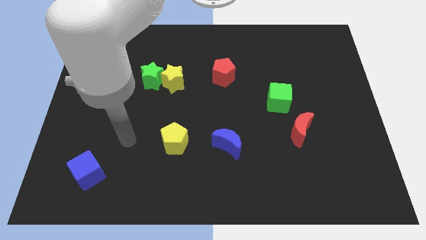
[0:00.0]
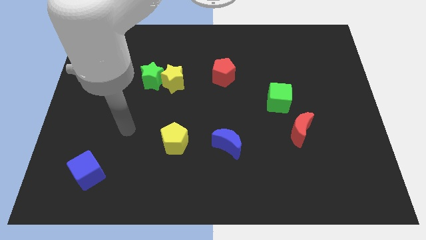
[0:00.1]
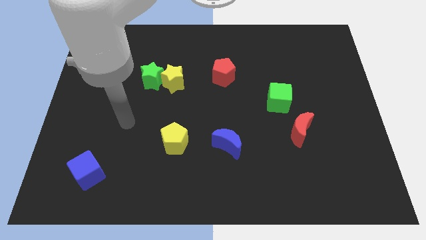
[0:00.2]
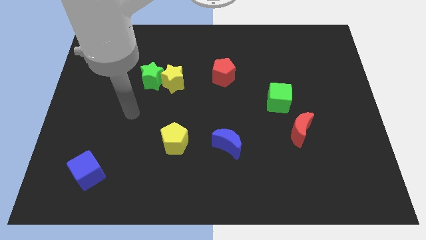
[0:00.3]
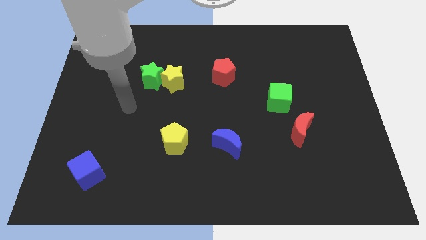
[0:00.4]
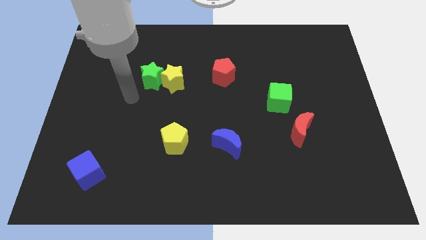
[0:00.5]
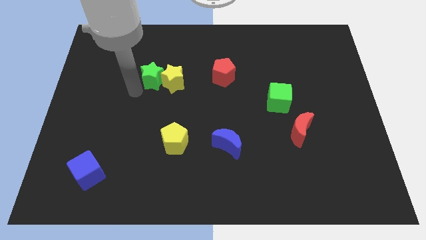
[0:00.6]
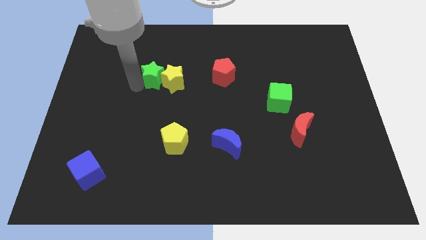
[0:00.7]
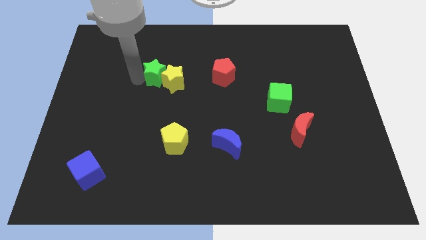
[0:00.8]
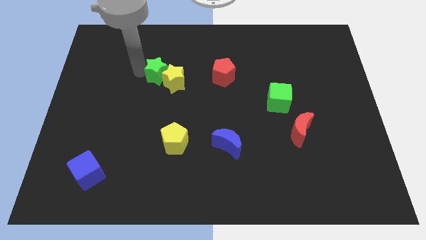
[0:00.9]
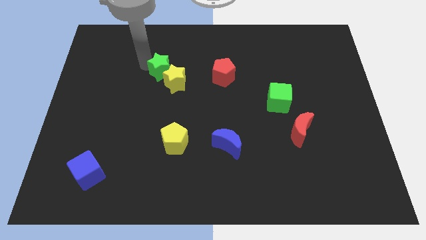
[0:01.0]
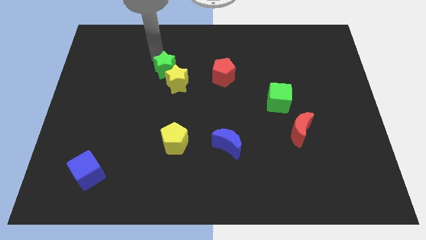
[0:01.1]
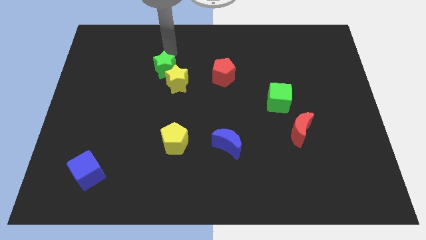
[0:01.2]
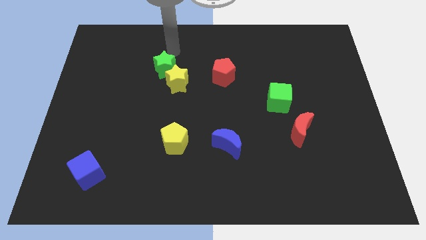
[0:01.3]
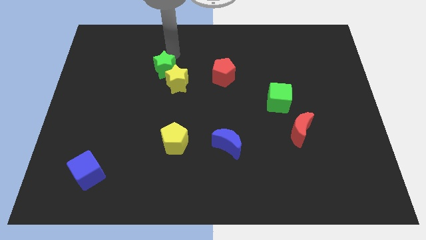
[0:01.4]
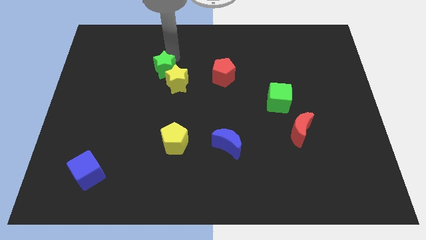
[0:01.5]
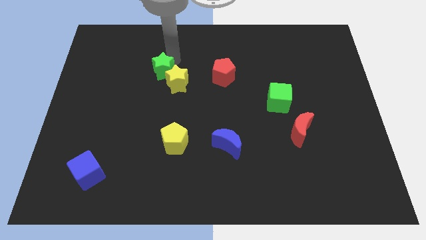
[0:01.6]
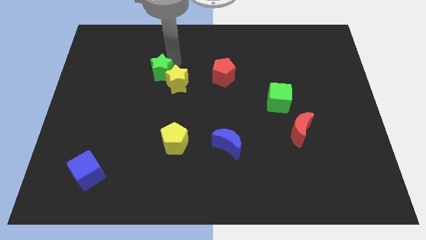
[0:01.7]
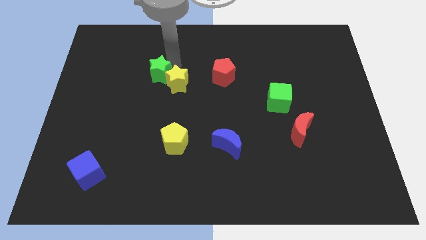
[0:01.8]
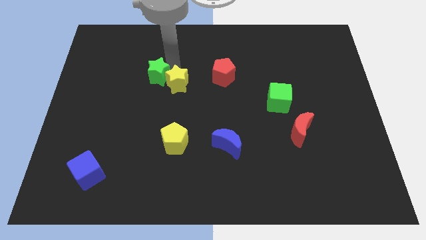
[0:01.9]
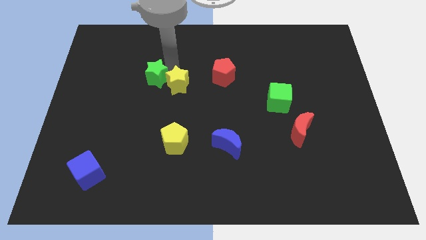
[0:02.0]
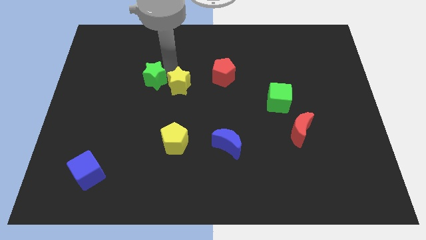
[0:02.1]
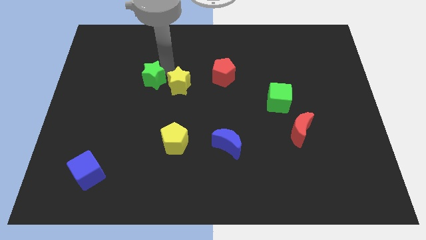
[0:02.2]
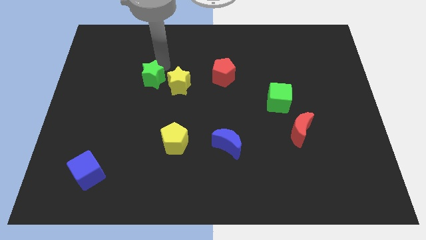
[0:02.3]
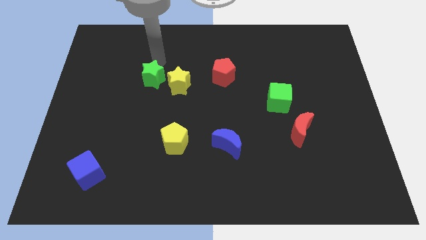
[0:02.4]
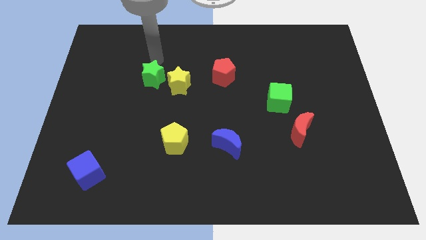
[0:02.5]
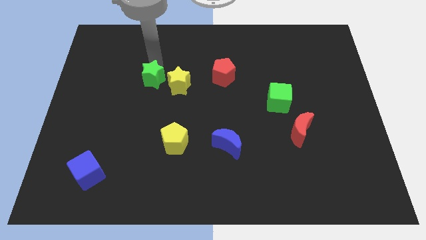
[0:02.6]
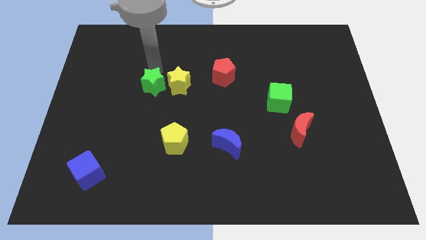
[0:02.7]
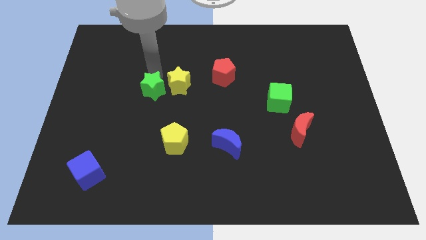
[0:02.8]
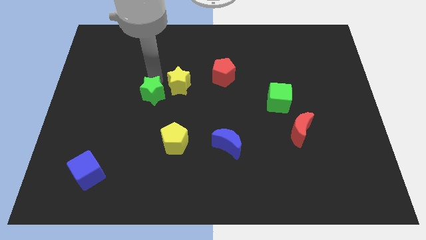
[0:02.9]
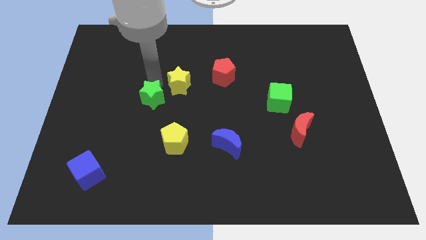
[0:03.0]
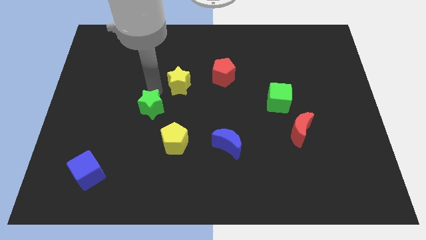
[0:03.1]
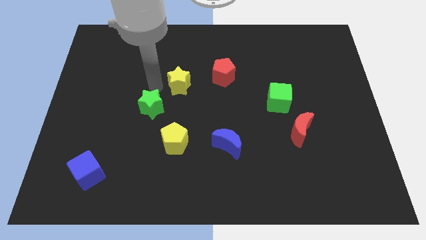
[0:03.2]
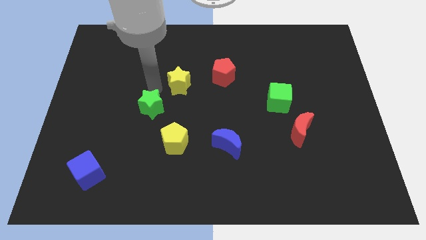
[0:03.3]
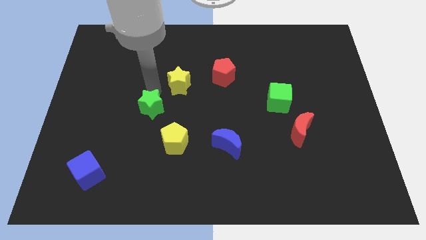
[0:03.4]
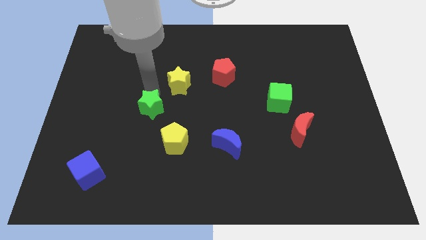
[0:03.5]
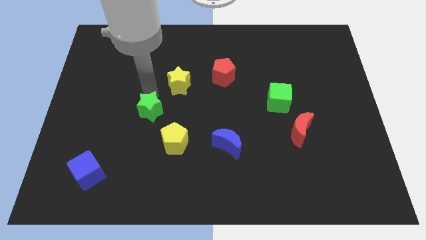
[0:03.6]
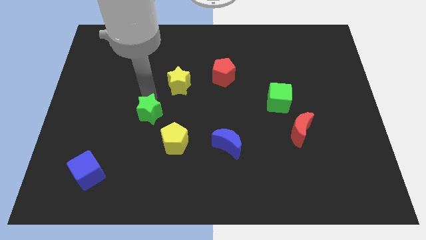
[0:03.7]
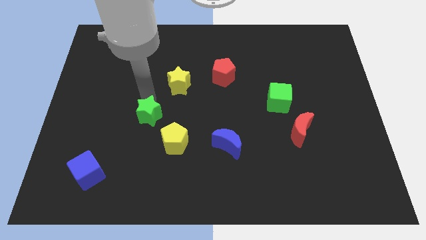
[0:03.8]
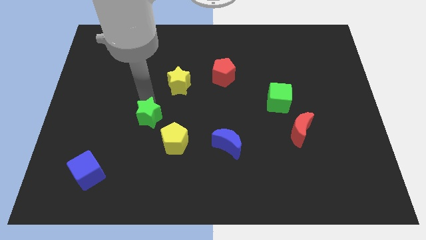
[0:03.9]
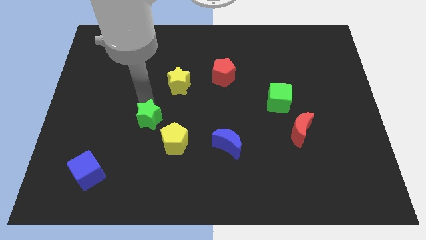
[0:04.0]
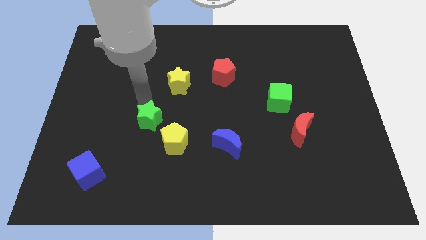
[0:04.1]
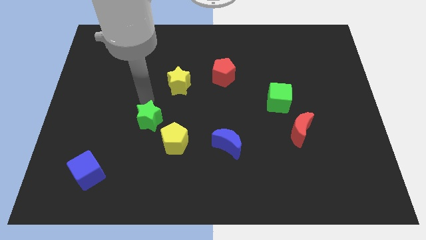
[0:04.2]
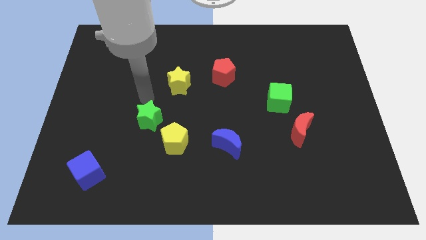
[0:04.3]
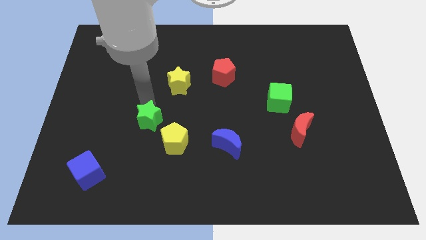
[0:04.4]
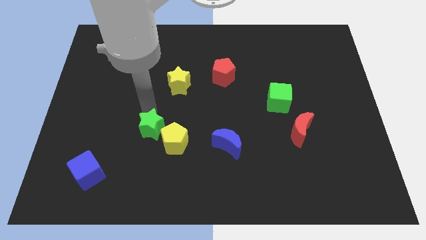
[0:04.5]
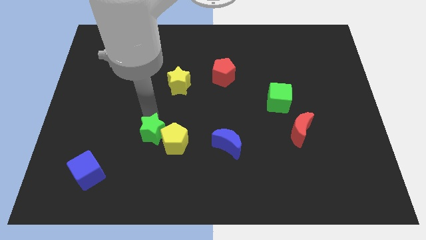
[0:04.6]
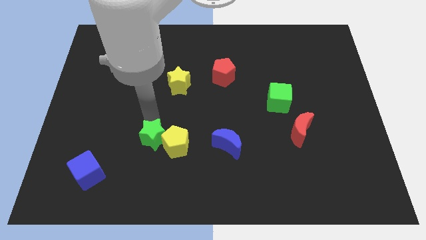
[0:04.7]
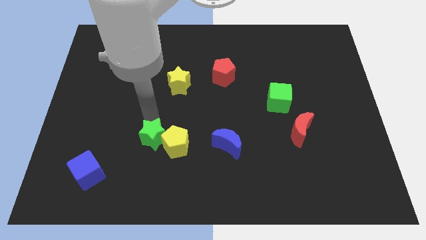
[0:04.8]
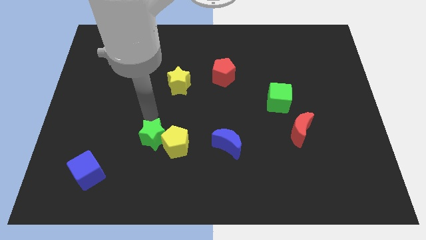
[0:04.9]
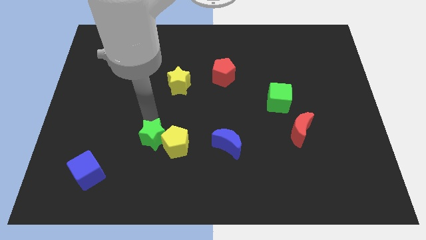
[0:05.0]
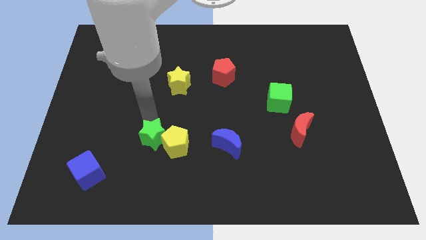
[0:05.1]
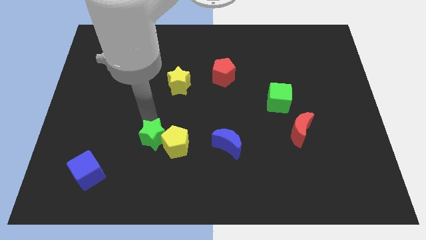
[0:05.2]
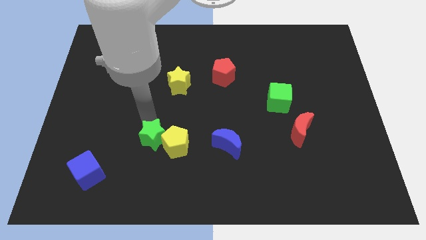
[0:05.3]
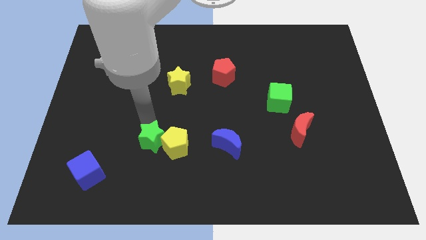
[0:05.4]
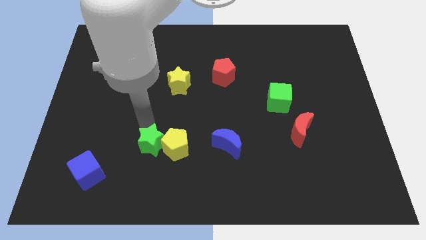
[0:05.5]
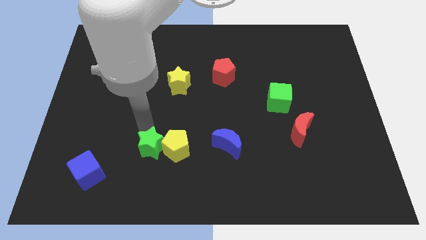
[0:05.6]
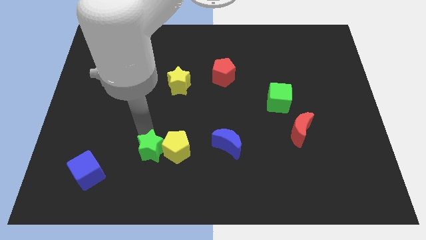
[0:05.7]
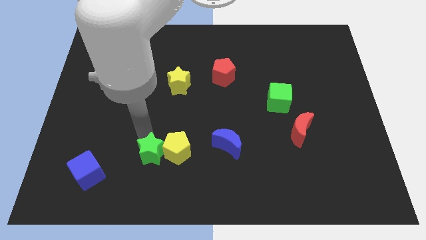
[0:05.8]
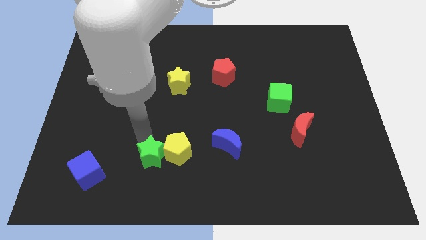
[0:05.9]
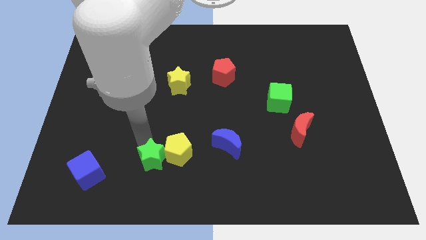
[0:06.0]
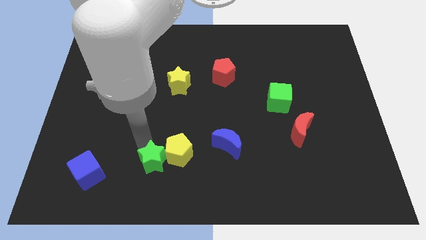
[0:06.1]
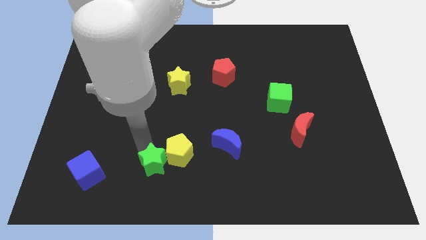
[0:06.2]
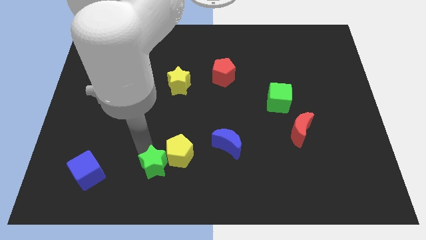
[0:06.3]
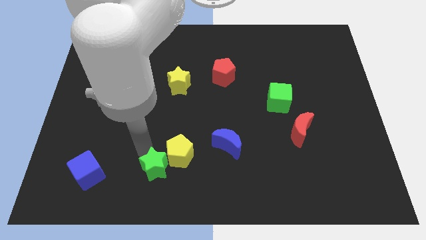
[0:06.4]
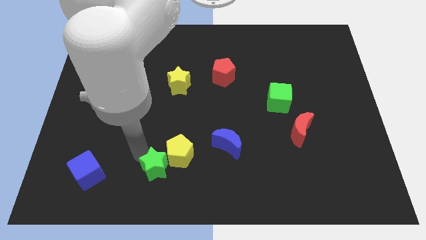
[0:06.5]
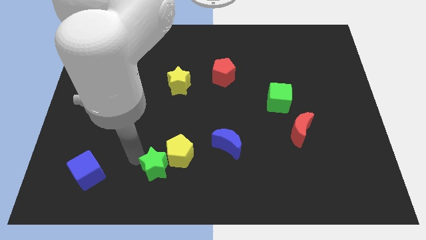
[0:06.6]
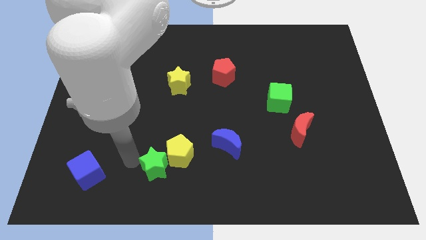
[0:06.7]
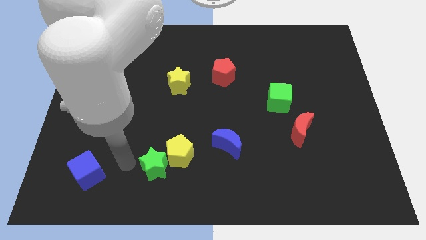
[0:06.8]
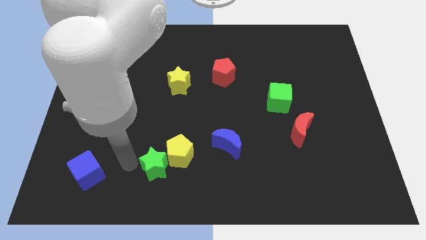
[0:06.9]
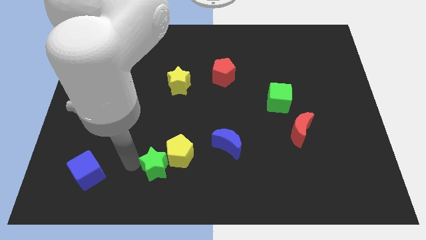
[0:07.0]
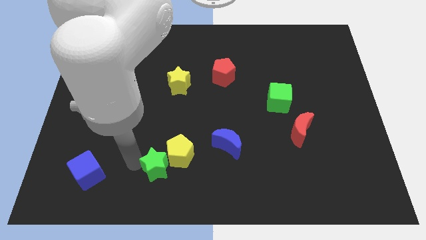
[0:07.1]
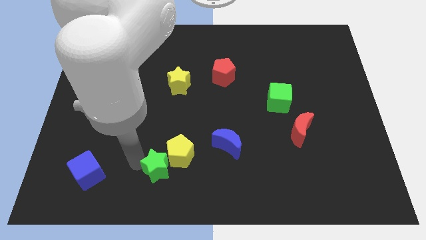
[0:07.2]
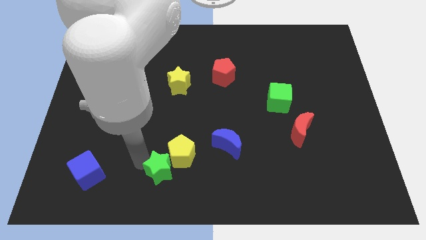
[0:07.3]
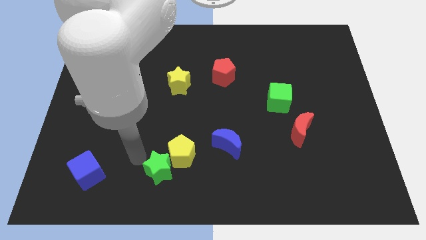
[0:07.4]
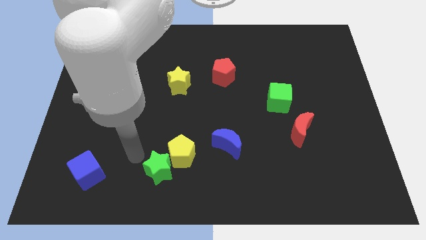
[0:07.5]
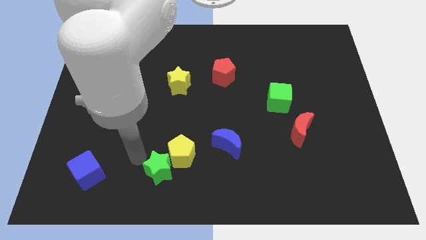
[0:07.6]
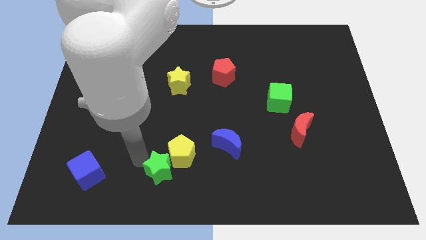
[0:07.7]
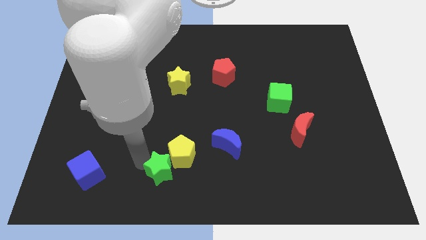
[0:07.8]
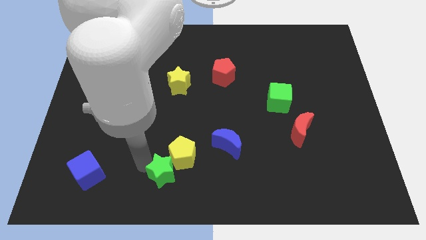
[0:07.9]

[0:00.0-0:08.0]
push the green star to the bottom
